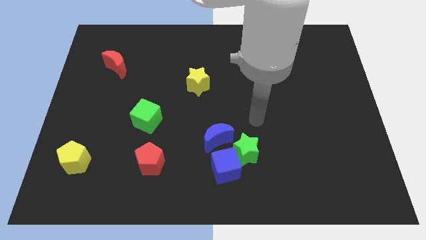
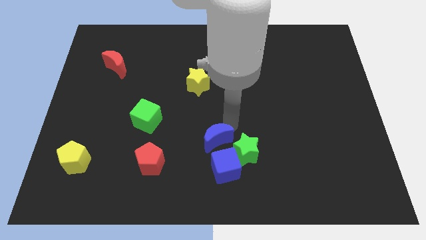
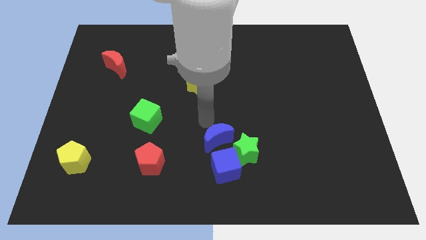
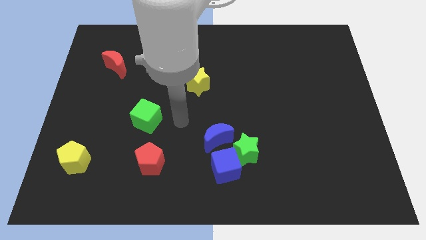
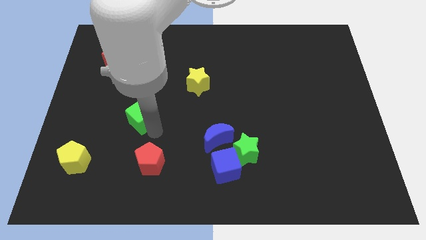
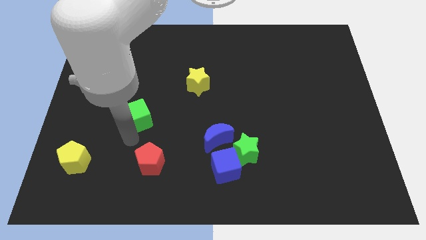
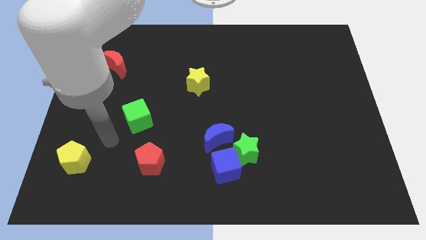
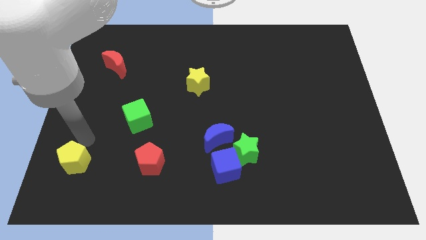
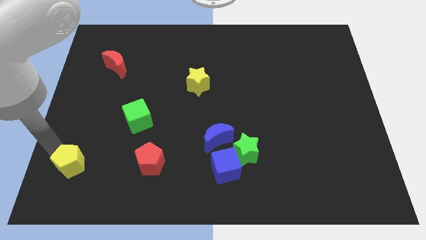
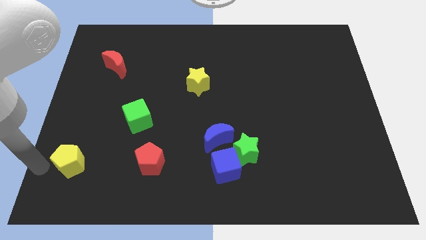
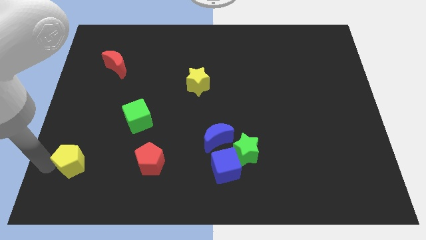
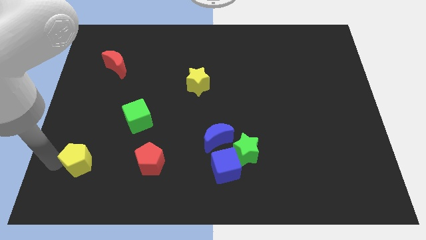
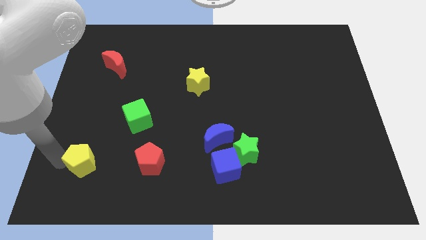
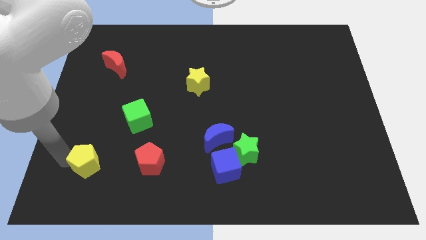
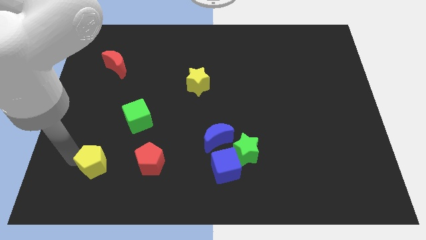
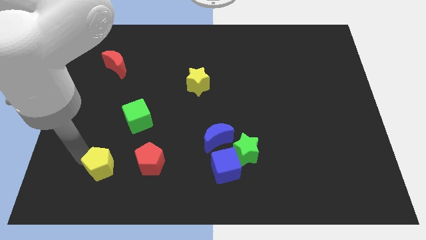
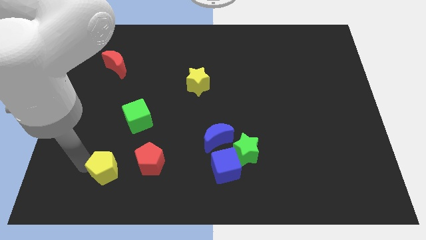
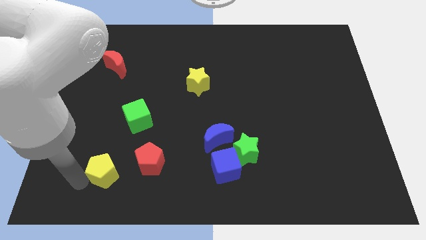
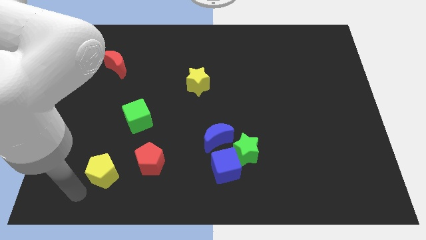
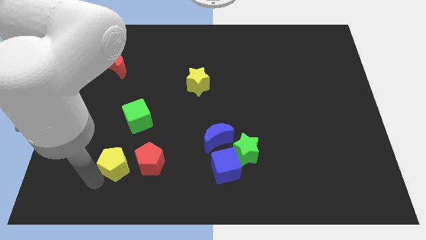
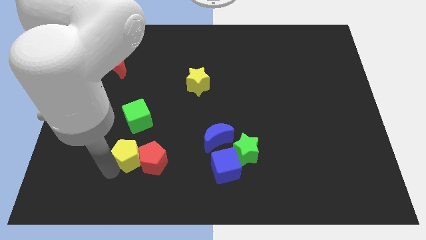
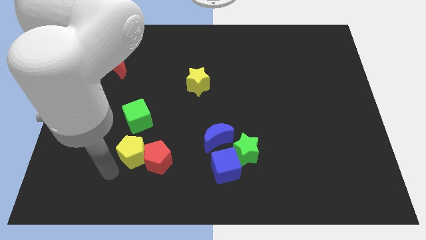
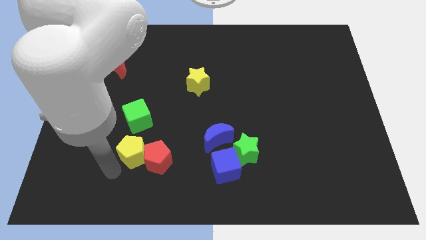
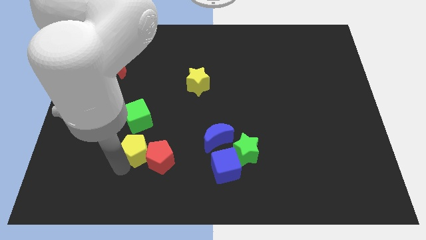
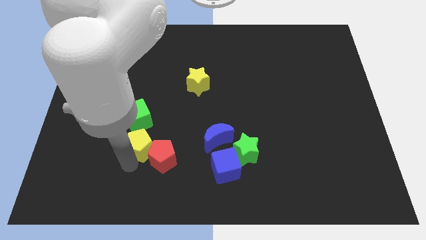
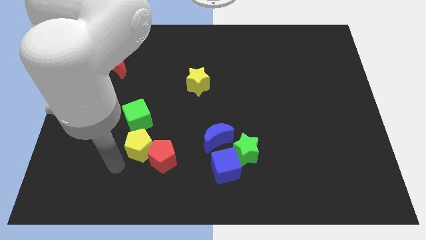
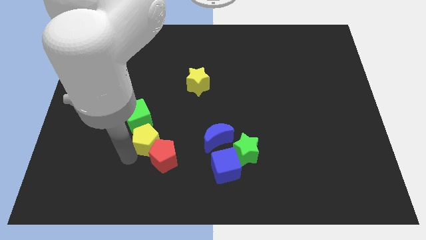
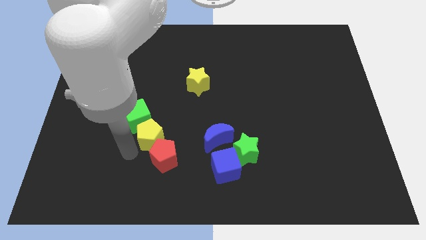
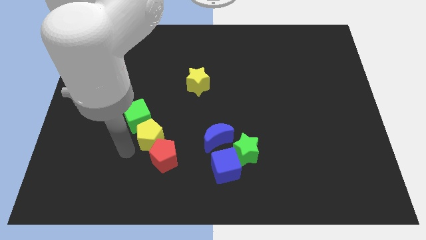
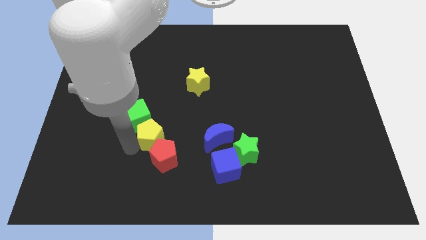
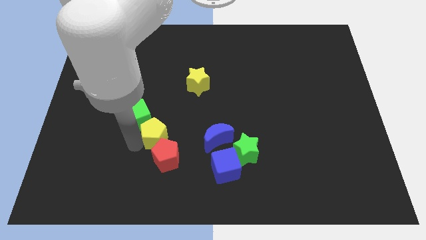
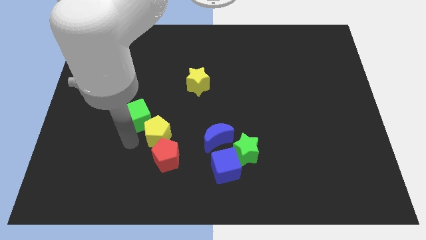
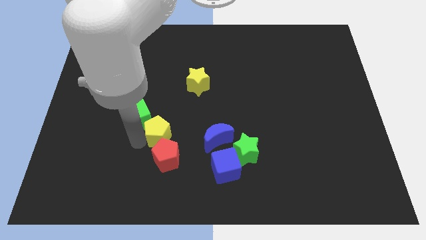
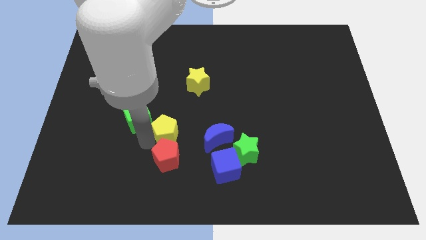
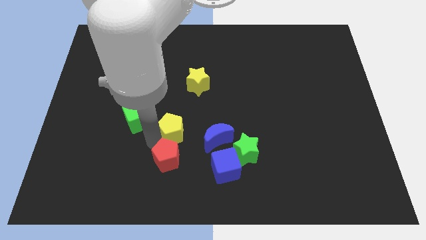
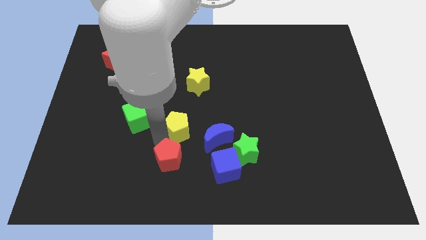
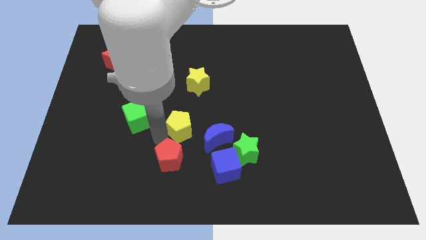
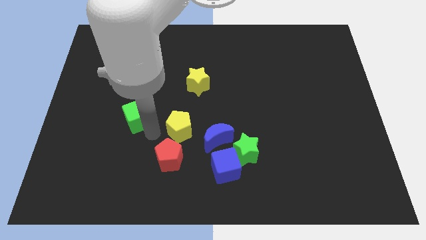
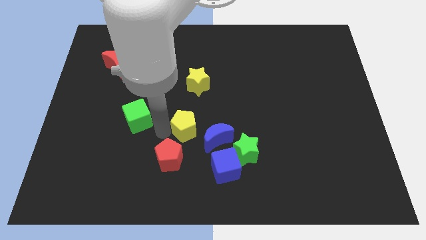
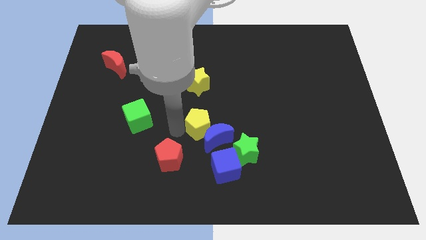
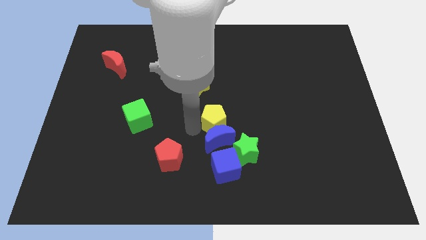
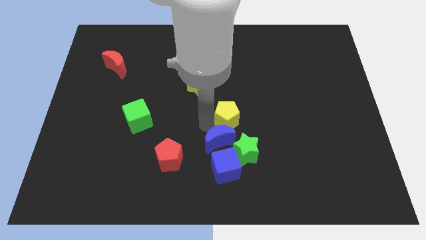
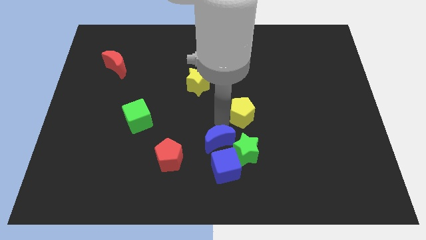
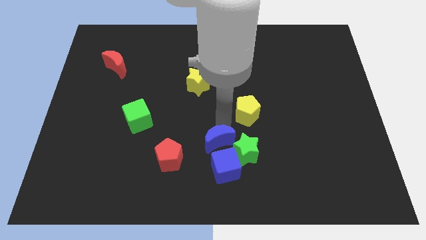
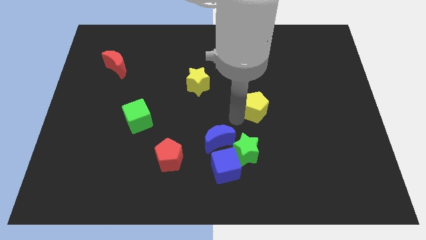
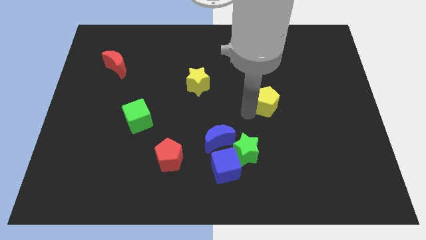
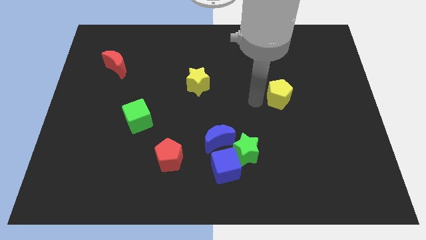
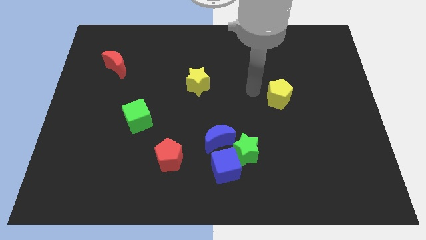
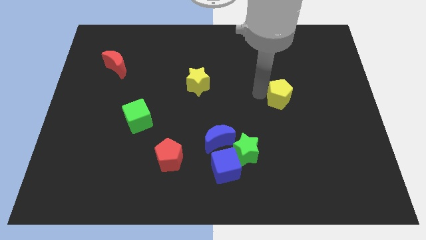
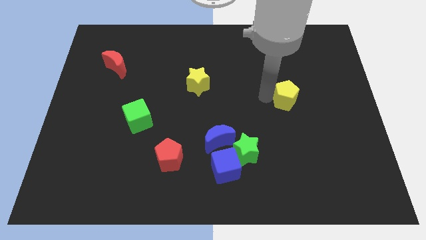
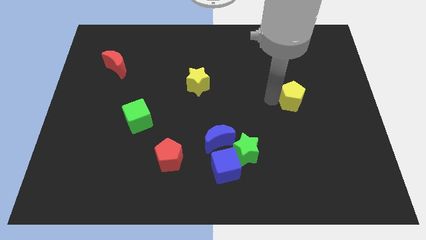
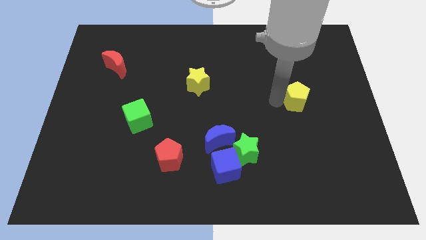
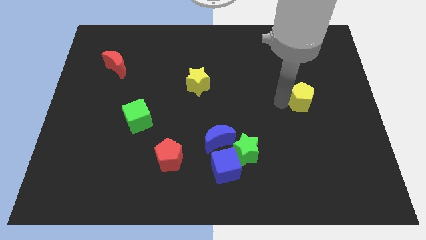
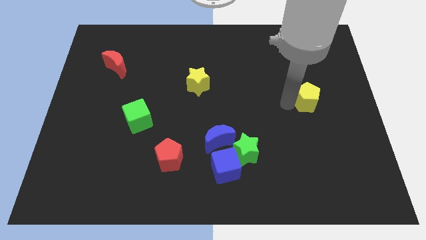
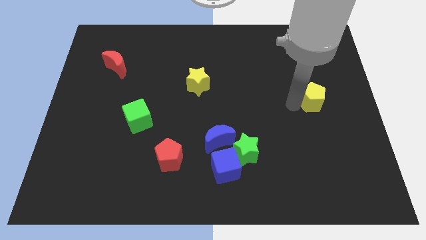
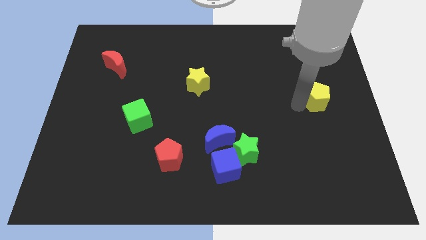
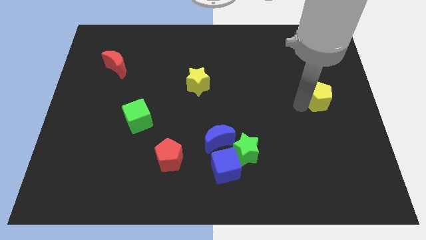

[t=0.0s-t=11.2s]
slide the yellow pentagon to the right side

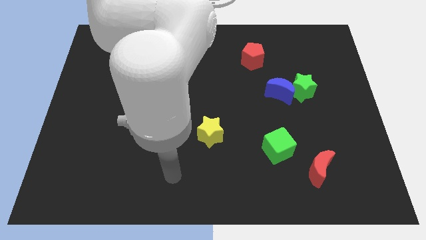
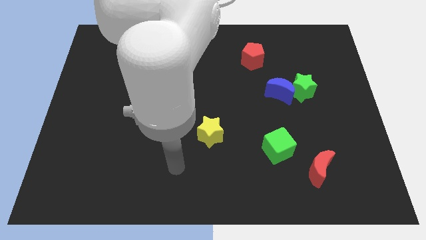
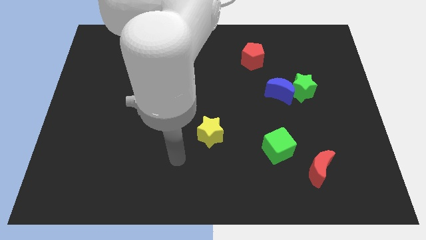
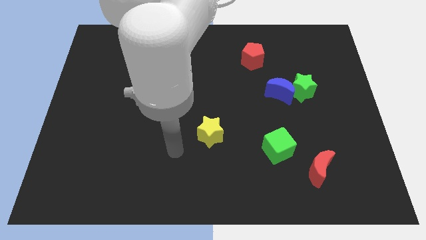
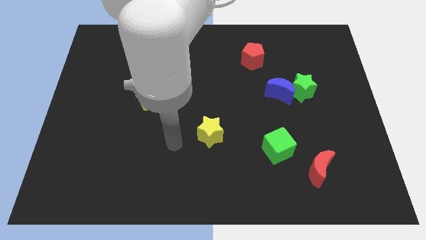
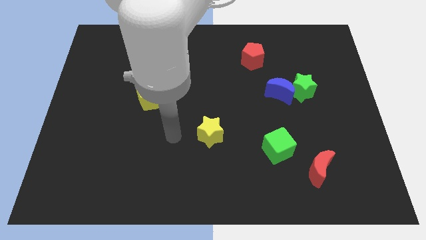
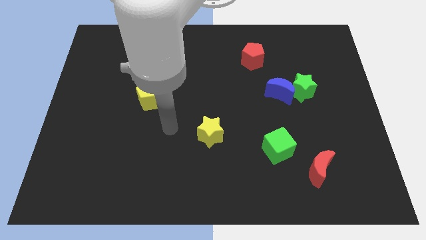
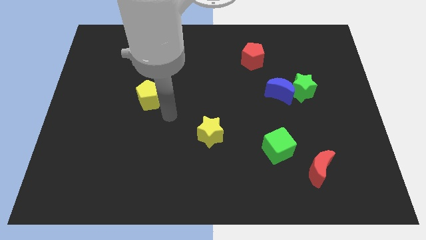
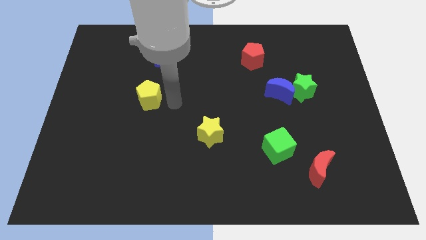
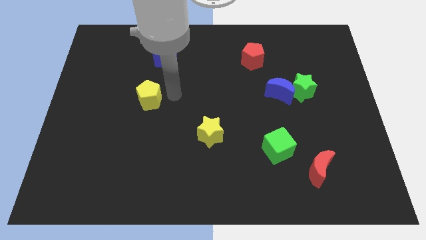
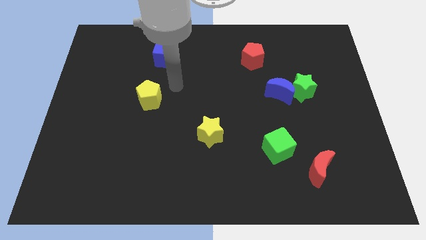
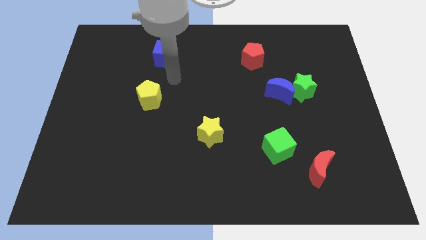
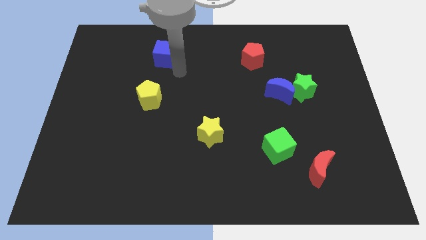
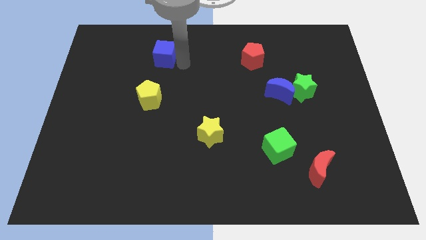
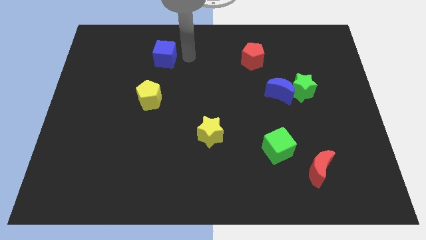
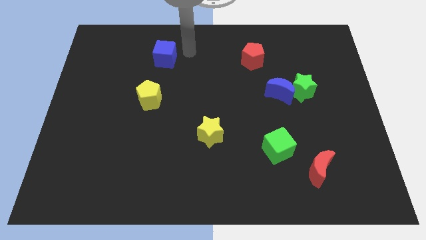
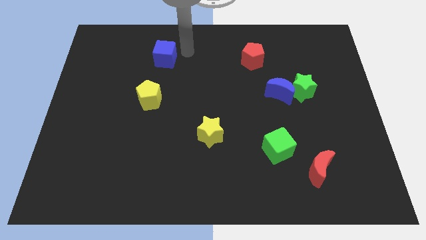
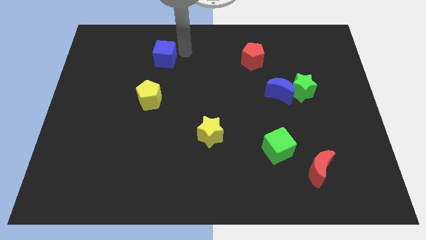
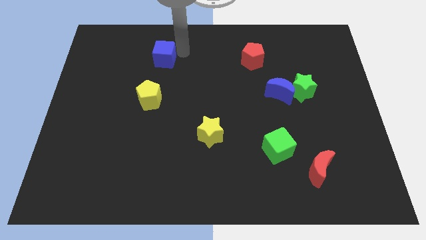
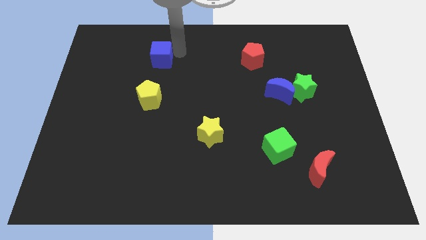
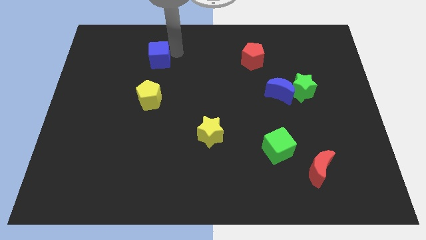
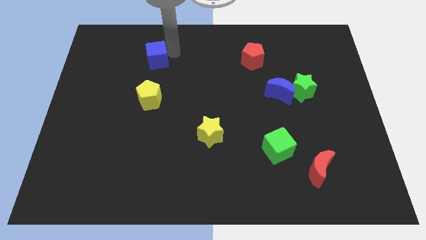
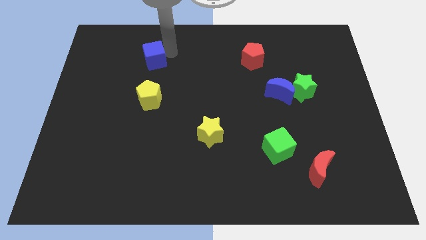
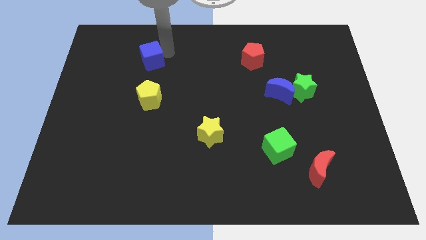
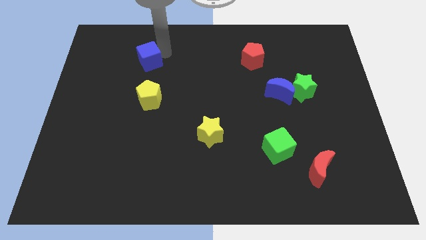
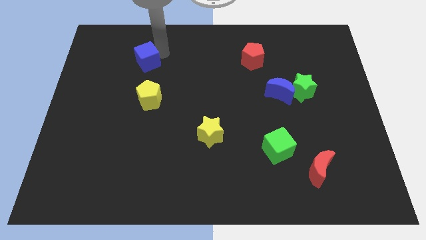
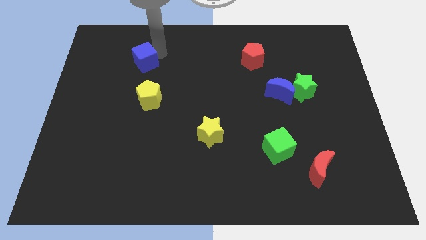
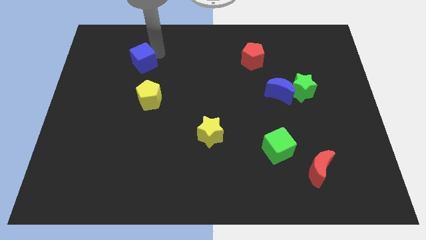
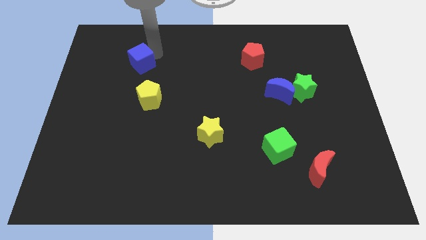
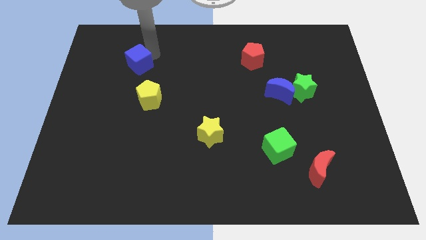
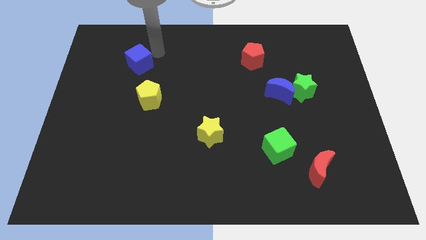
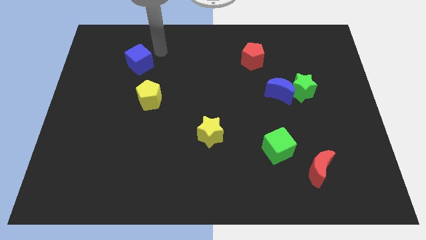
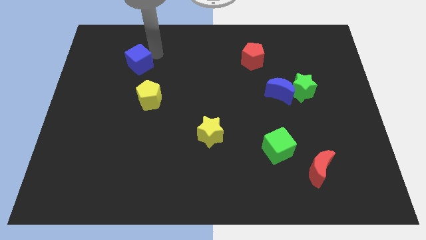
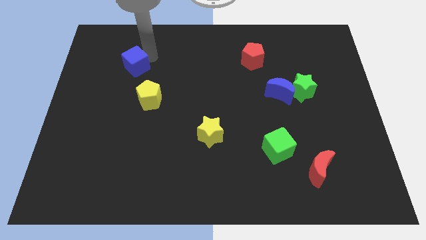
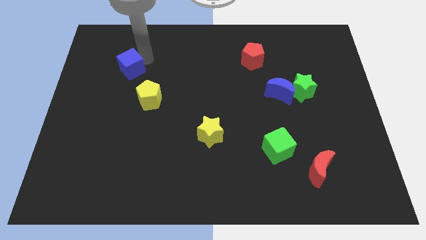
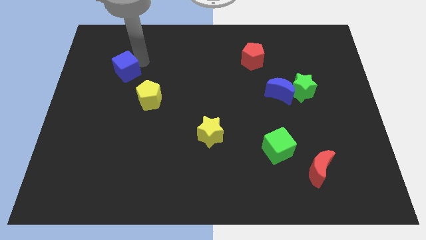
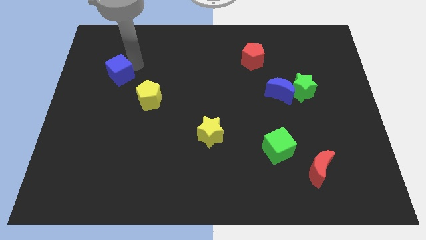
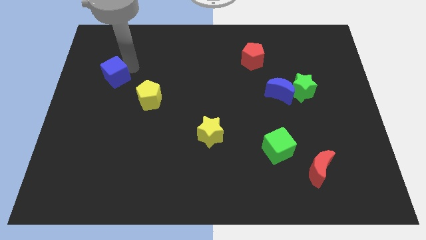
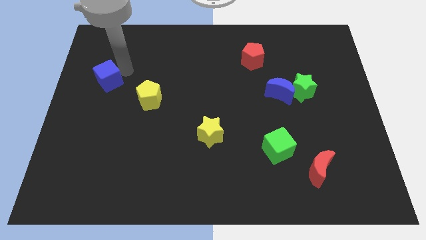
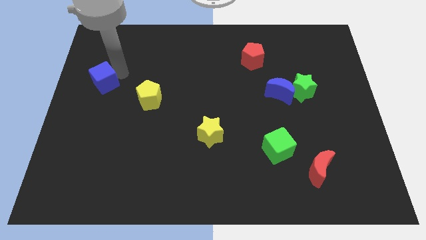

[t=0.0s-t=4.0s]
push the blue cube to the left side
